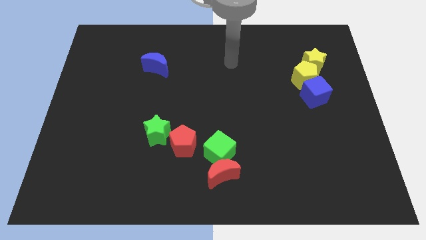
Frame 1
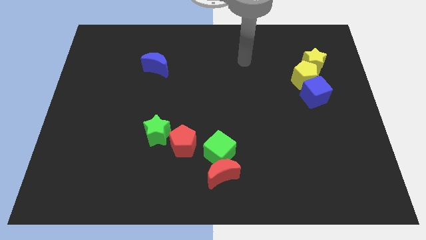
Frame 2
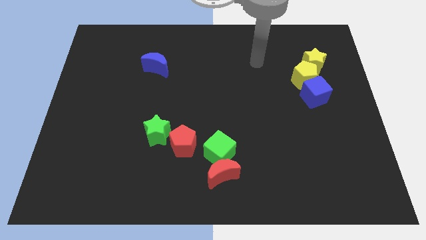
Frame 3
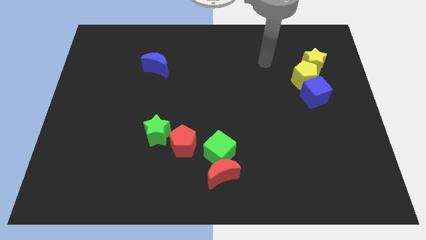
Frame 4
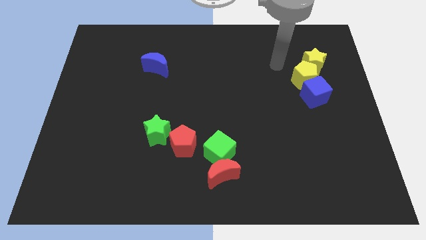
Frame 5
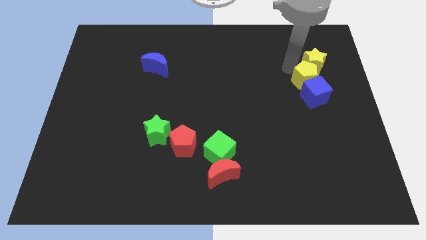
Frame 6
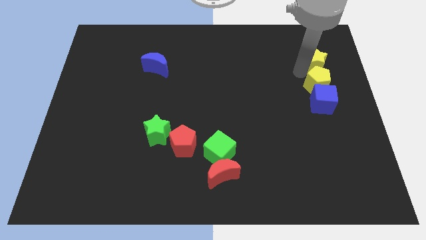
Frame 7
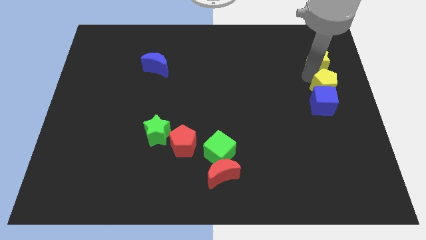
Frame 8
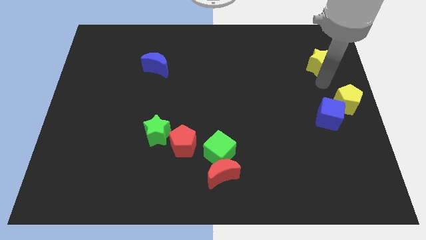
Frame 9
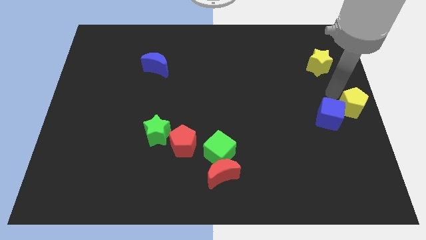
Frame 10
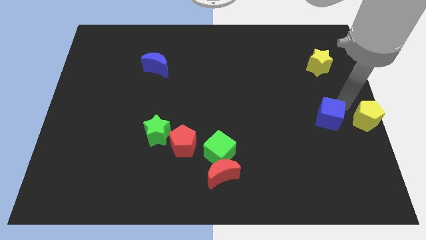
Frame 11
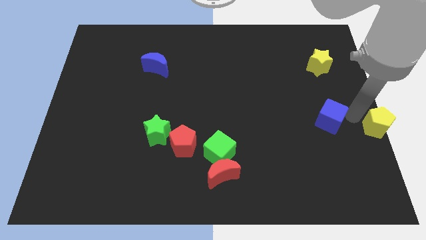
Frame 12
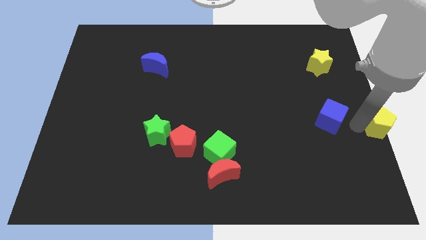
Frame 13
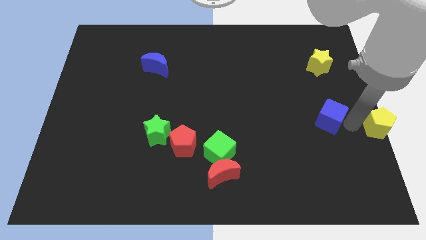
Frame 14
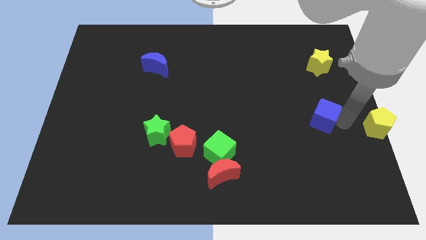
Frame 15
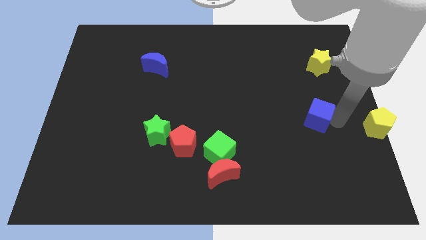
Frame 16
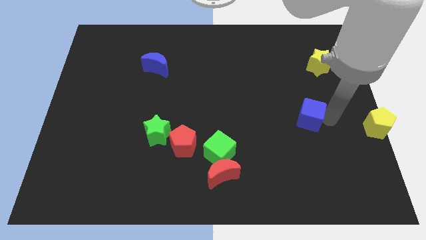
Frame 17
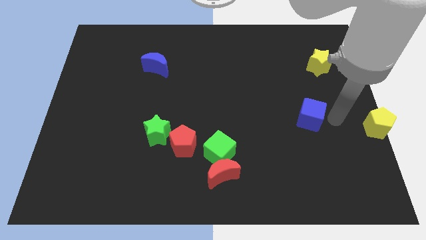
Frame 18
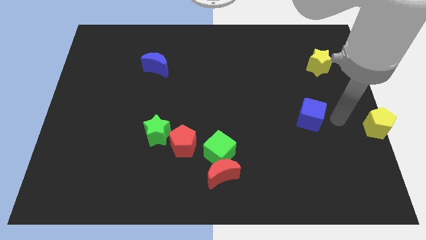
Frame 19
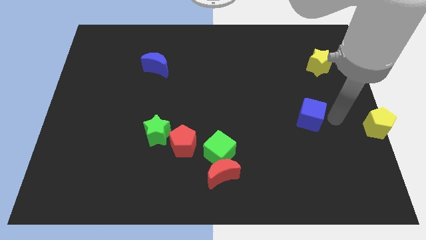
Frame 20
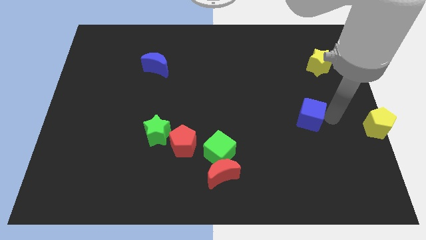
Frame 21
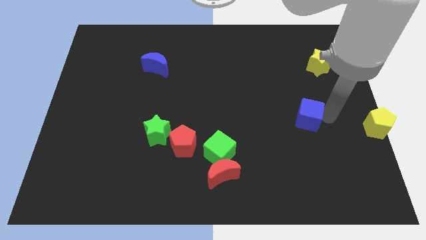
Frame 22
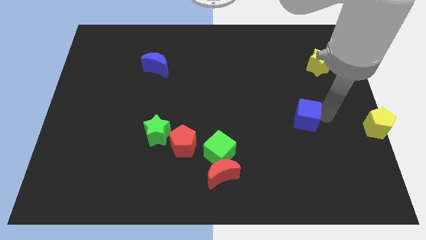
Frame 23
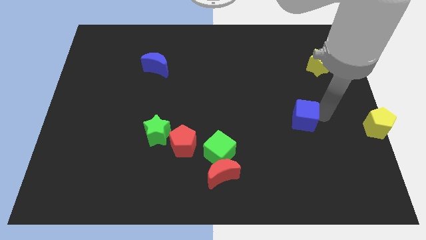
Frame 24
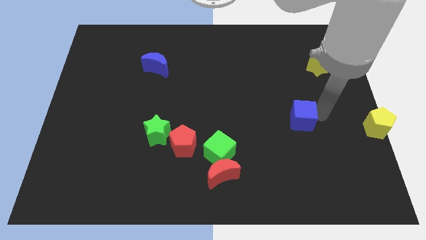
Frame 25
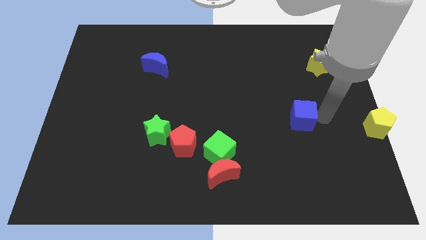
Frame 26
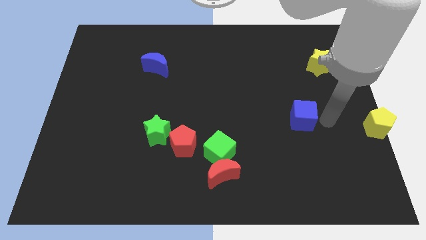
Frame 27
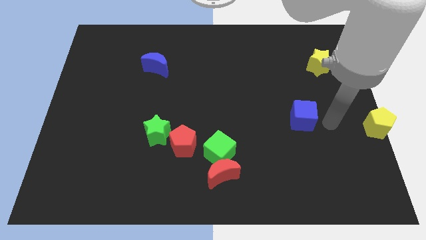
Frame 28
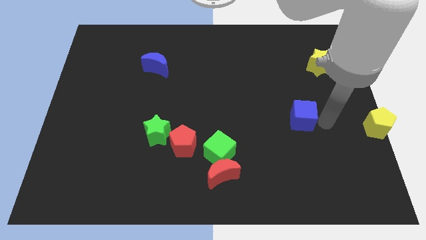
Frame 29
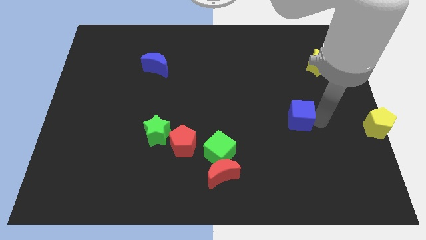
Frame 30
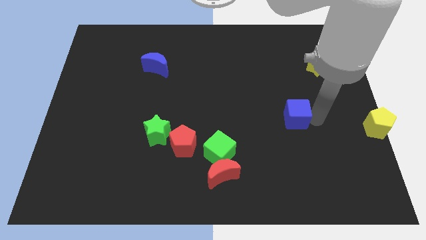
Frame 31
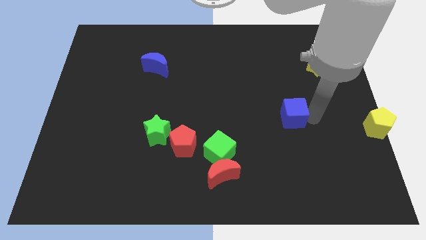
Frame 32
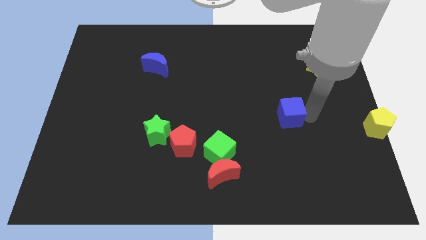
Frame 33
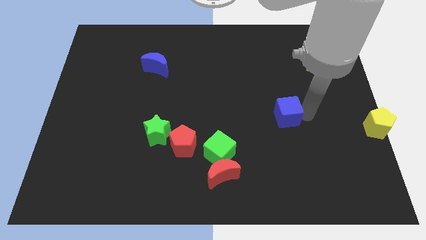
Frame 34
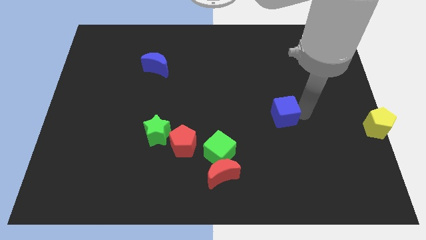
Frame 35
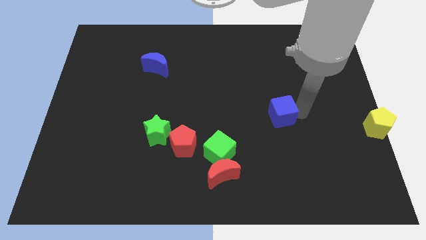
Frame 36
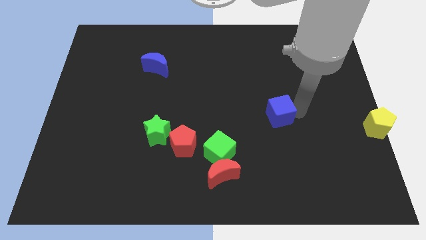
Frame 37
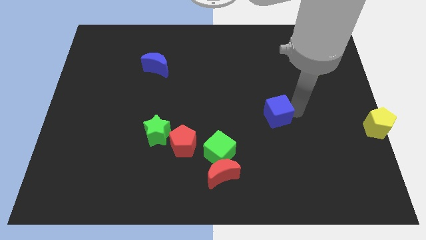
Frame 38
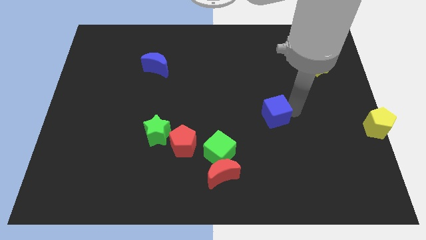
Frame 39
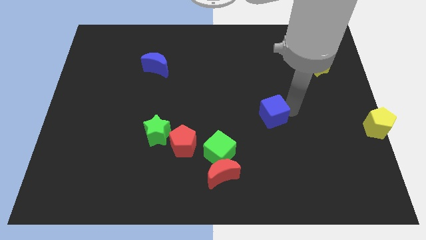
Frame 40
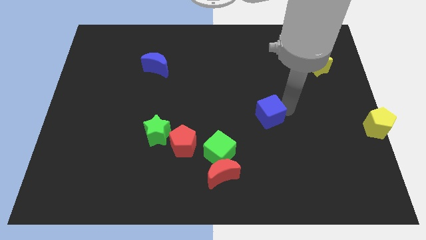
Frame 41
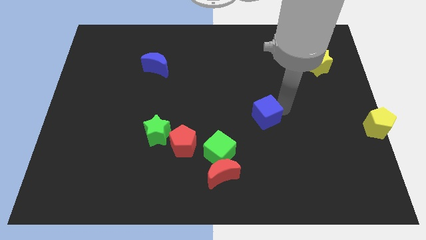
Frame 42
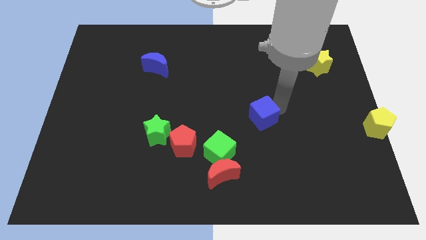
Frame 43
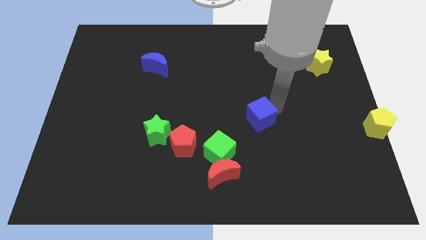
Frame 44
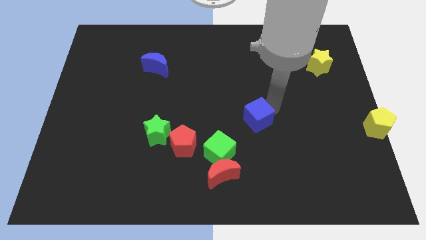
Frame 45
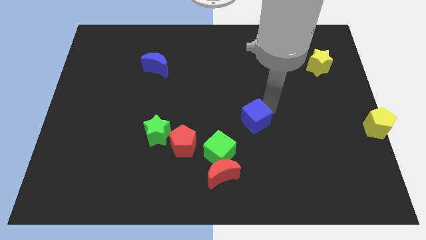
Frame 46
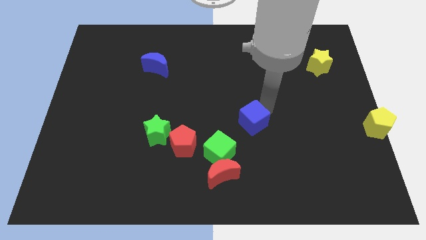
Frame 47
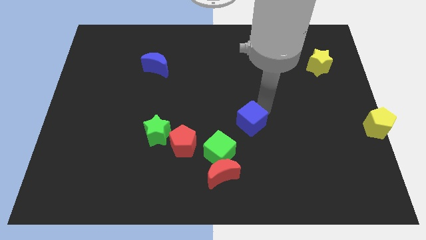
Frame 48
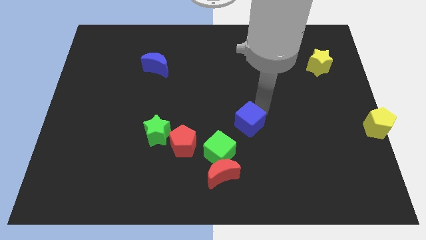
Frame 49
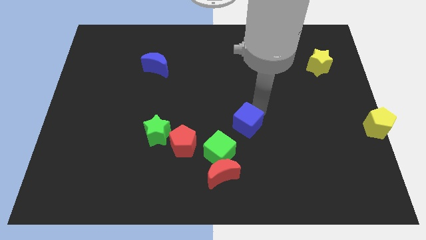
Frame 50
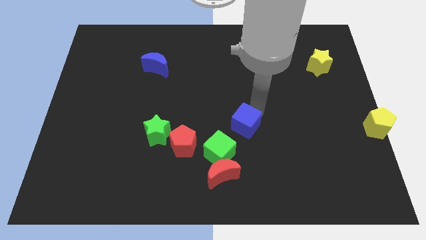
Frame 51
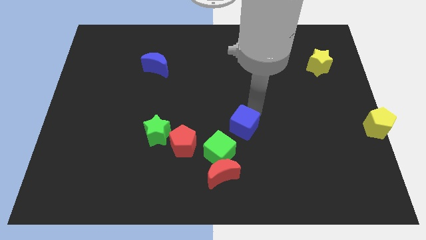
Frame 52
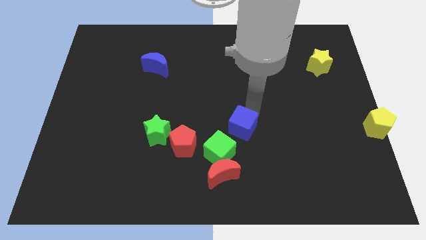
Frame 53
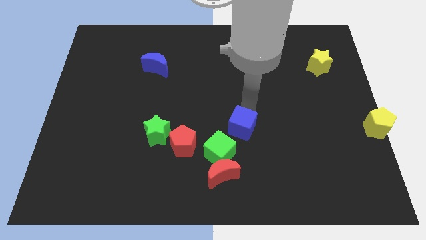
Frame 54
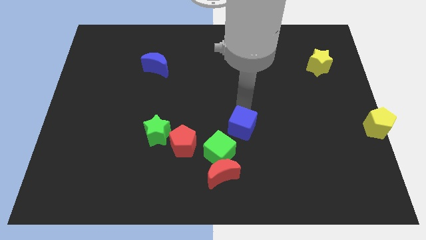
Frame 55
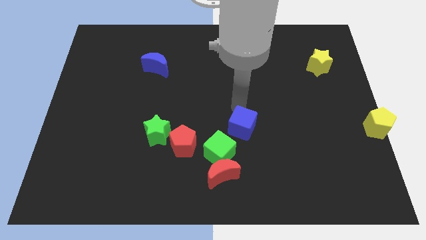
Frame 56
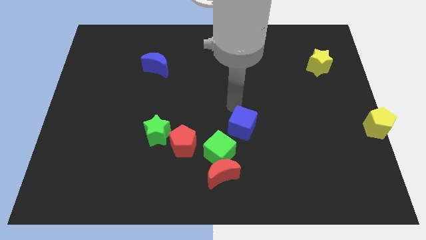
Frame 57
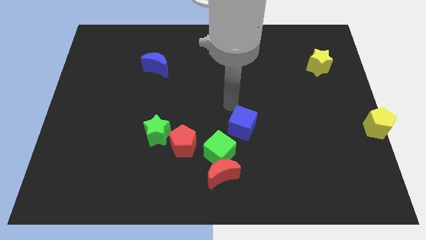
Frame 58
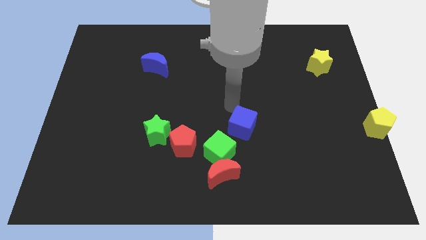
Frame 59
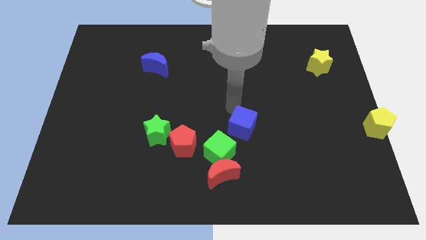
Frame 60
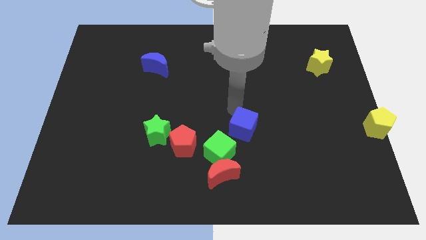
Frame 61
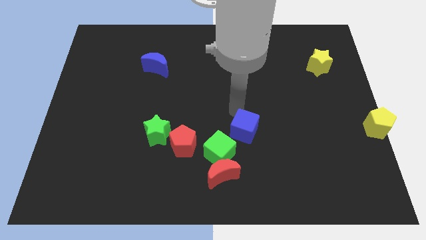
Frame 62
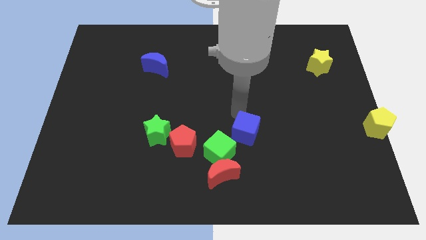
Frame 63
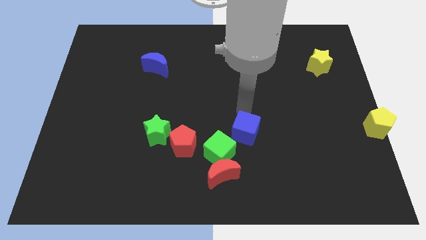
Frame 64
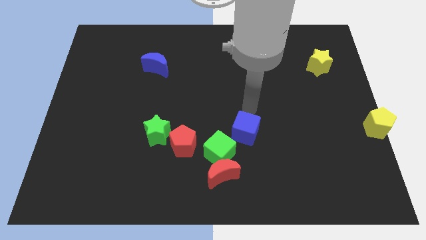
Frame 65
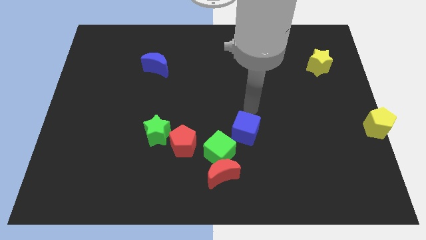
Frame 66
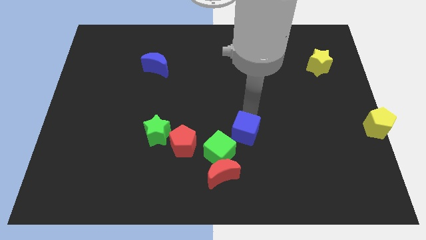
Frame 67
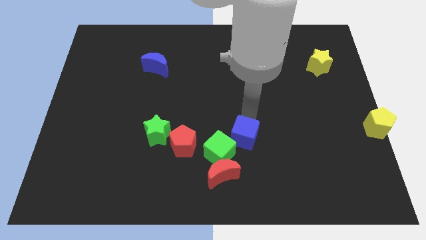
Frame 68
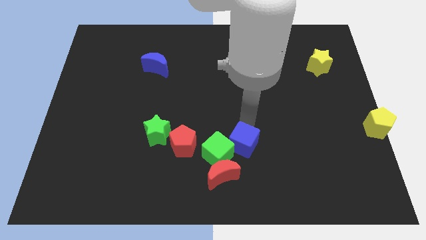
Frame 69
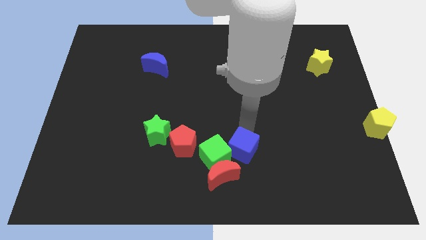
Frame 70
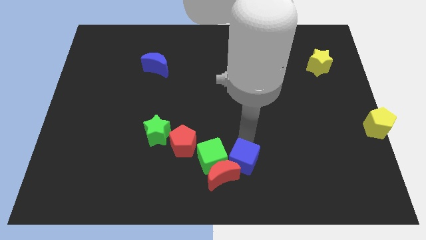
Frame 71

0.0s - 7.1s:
move the blue cube next to the red moon

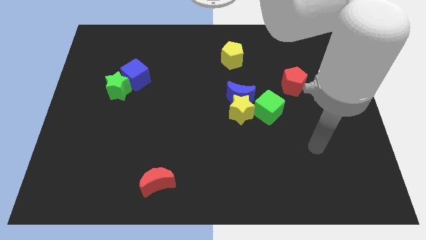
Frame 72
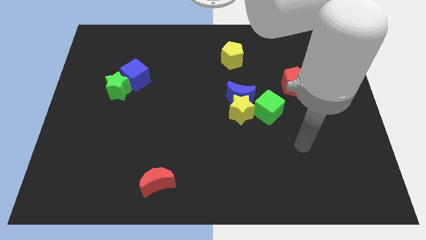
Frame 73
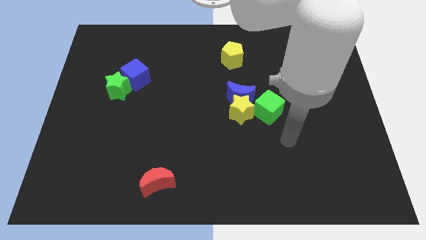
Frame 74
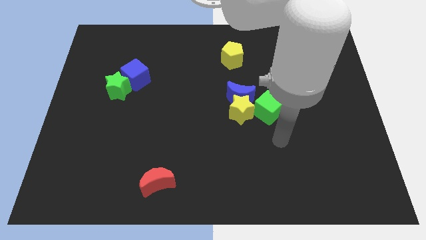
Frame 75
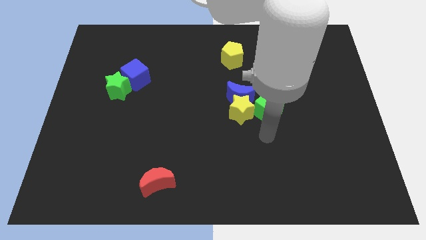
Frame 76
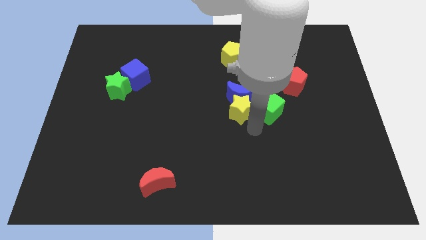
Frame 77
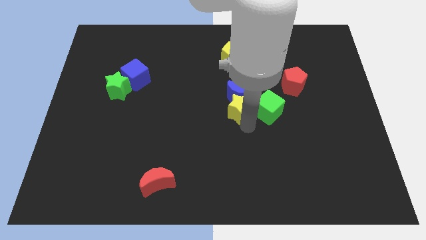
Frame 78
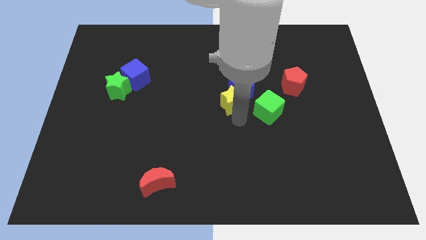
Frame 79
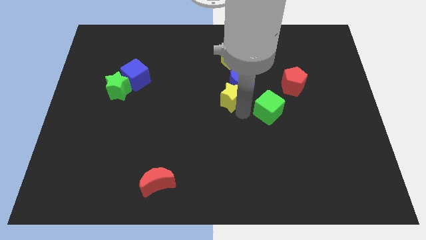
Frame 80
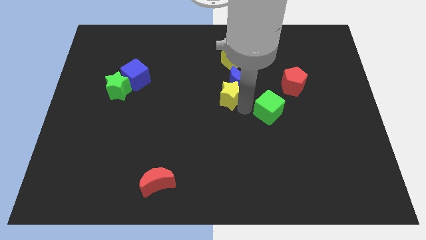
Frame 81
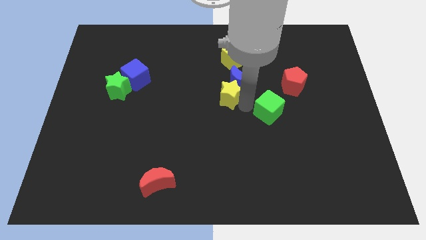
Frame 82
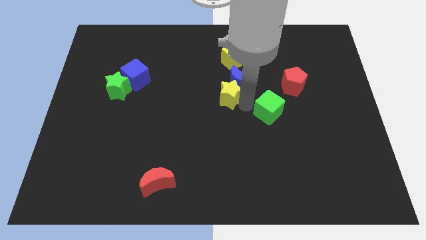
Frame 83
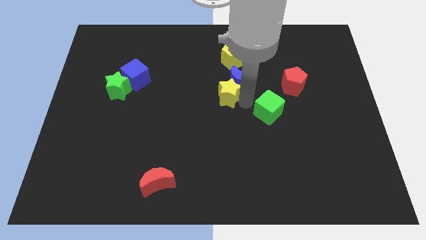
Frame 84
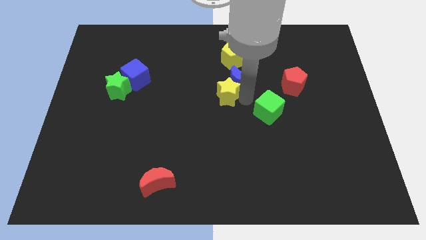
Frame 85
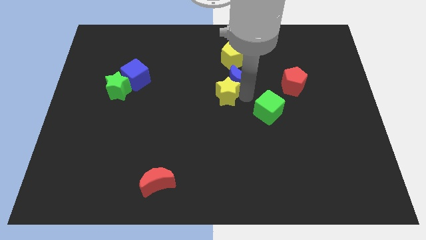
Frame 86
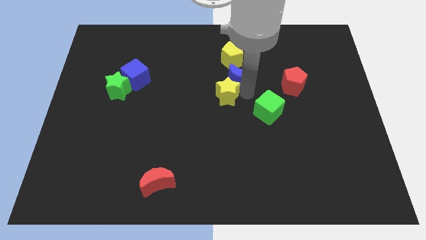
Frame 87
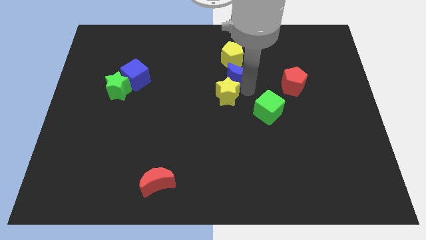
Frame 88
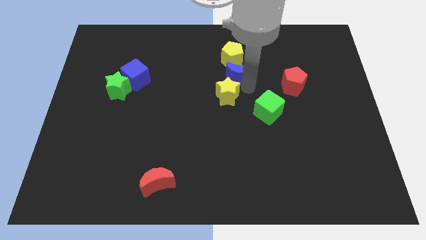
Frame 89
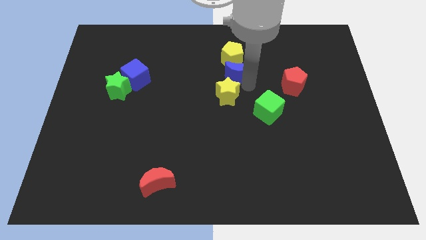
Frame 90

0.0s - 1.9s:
put the blue moon to the yellow pentagon
